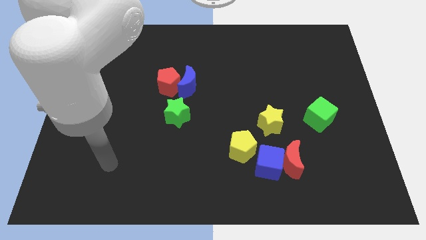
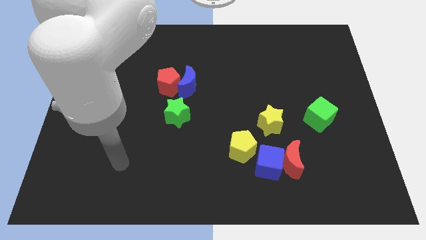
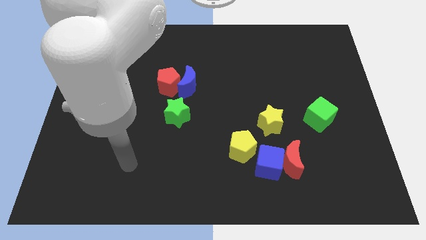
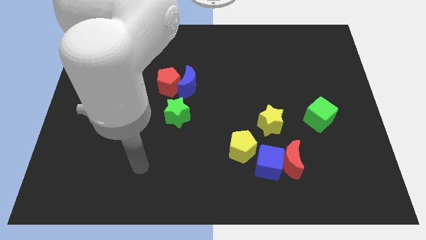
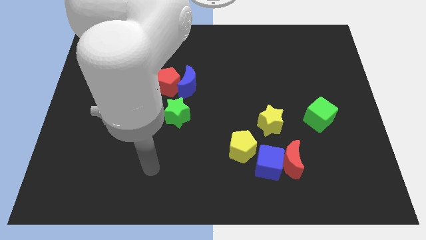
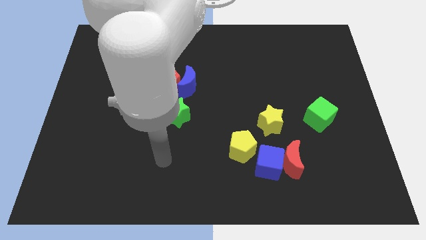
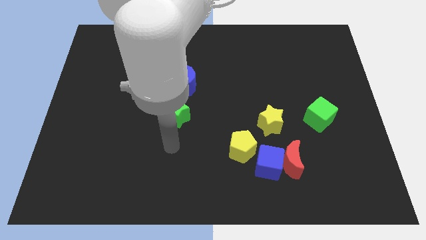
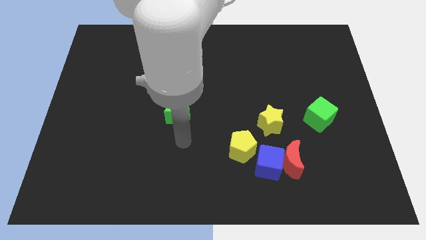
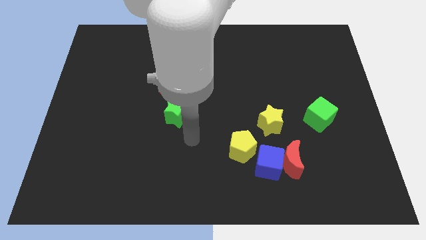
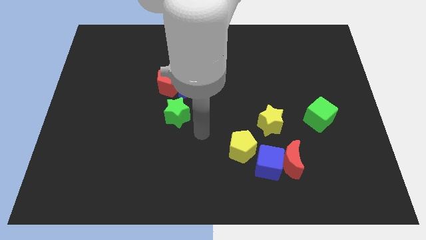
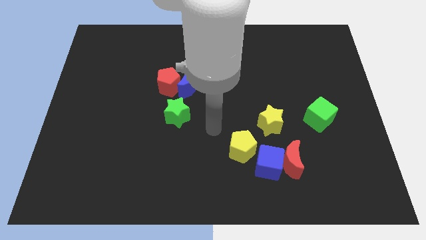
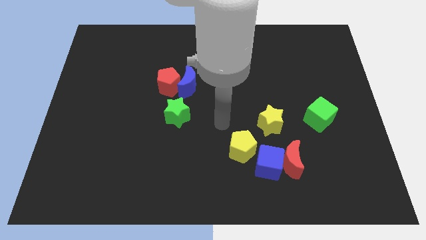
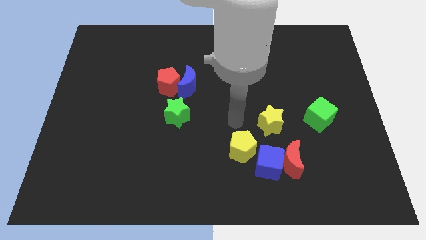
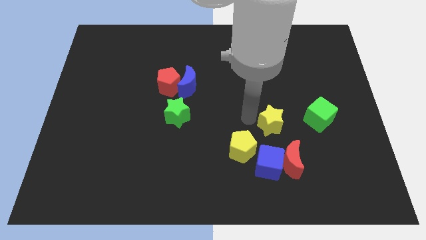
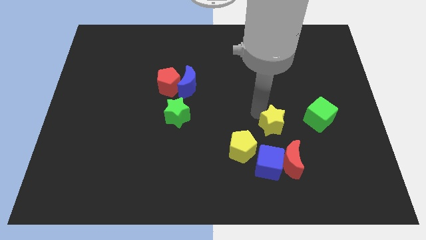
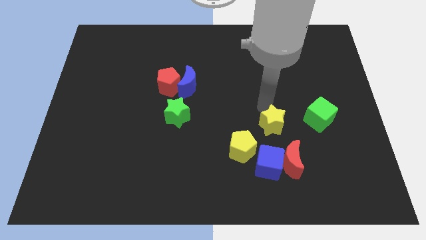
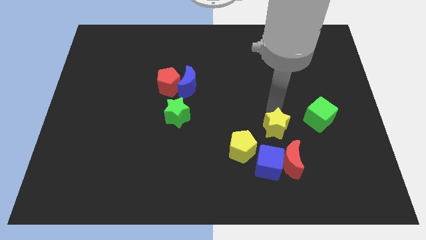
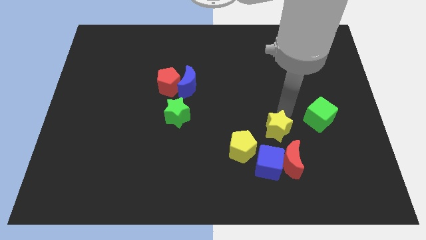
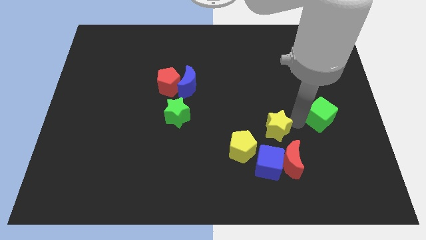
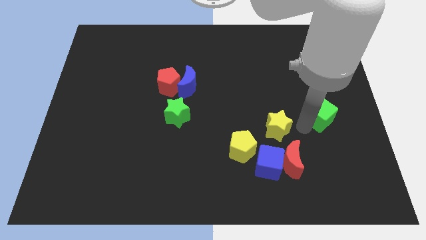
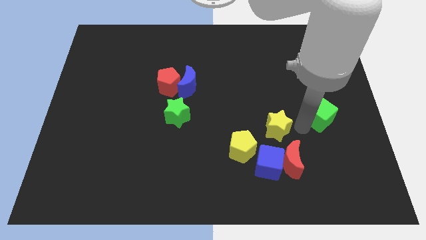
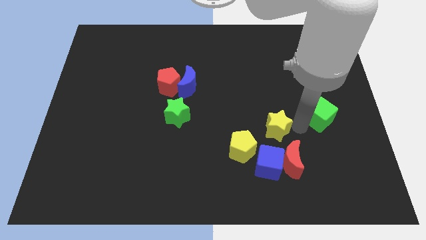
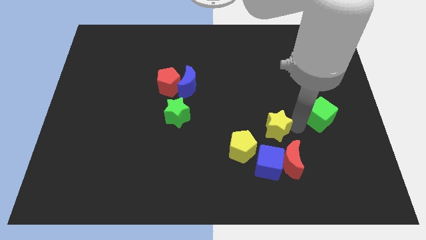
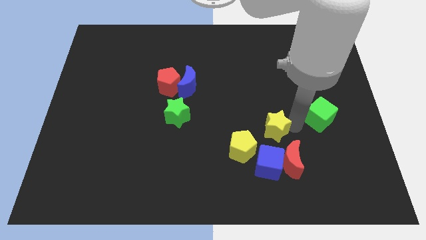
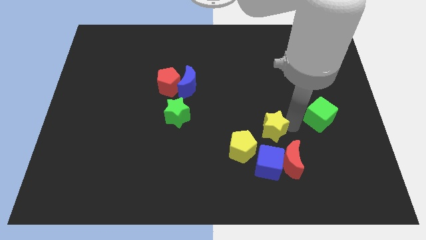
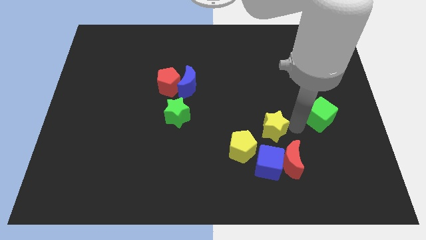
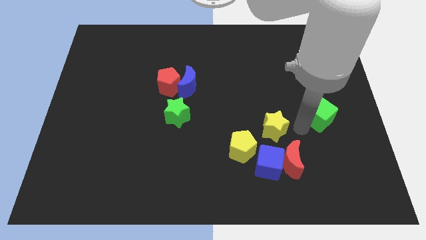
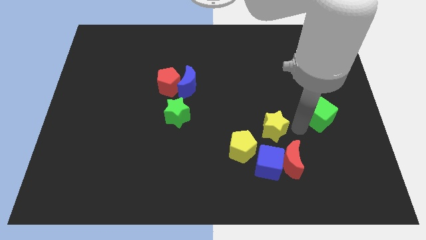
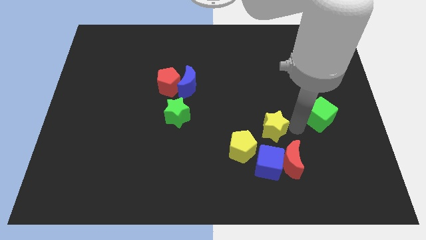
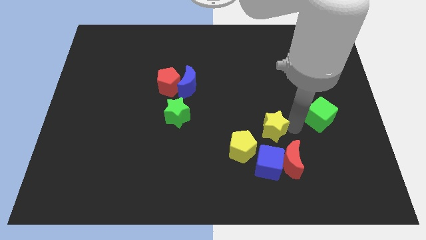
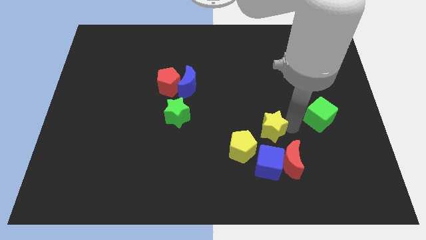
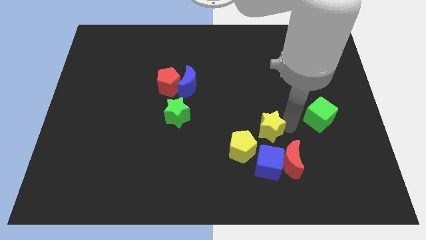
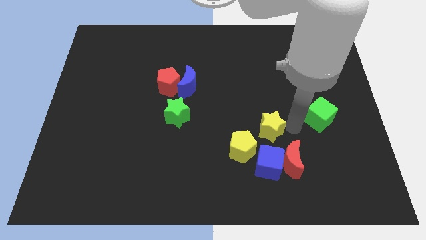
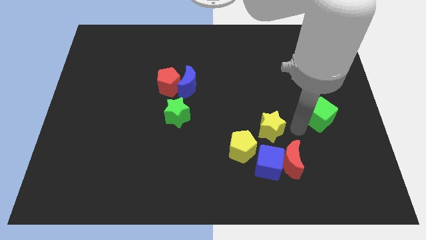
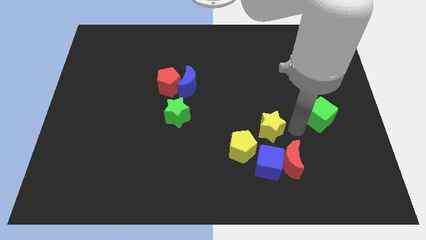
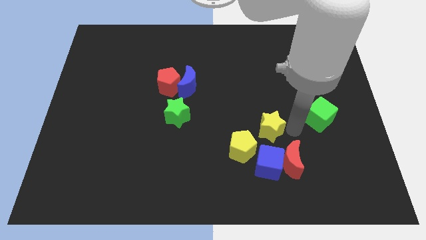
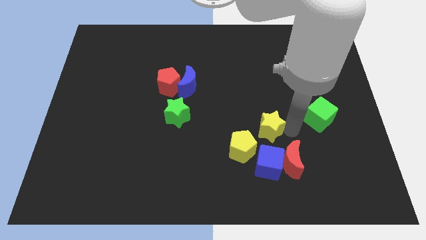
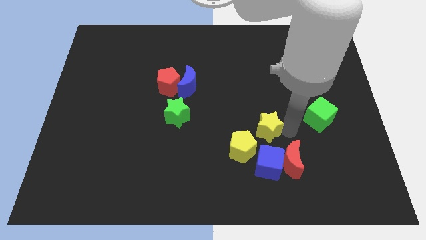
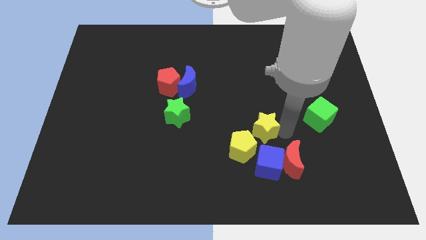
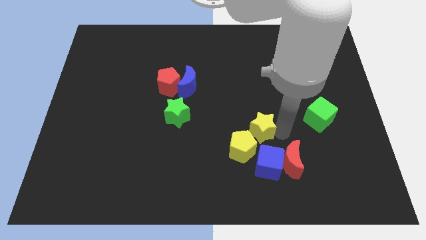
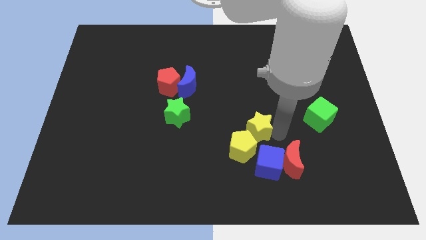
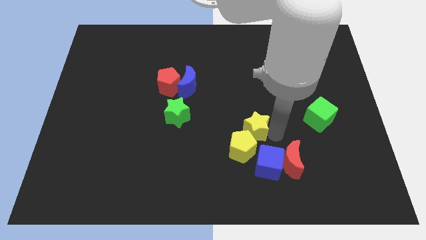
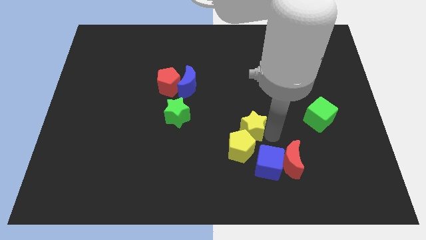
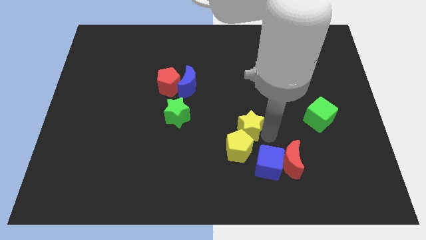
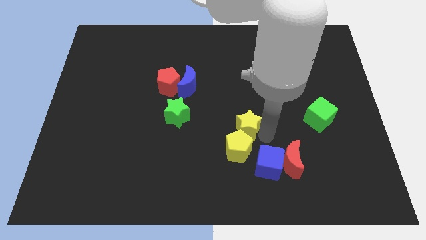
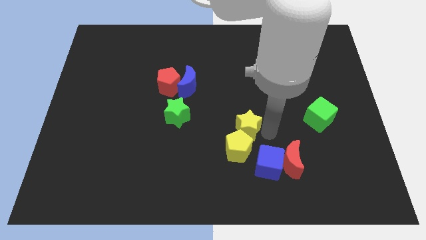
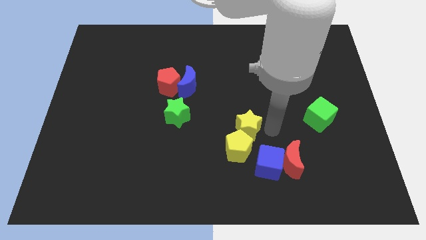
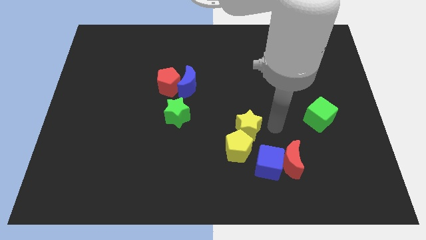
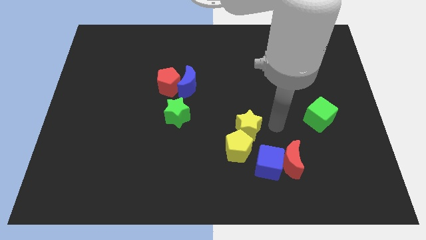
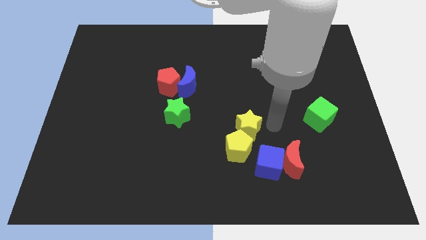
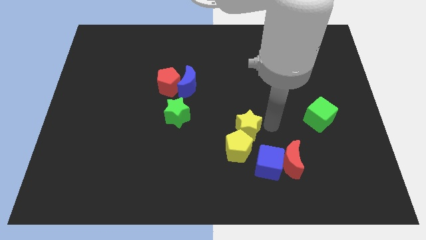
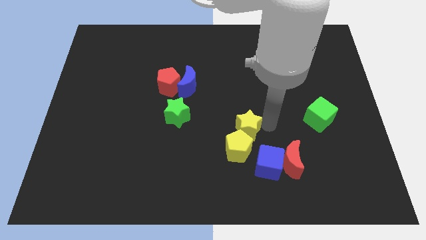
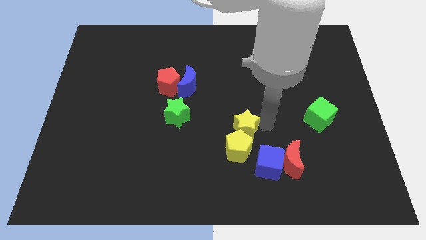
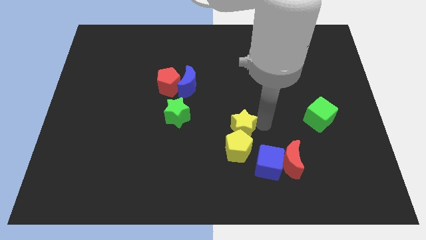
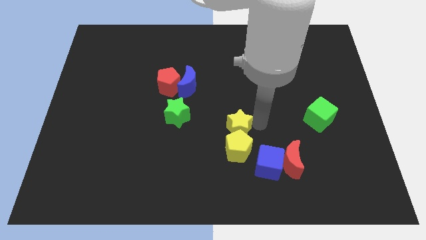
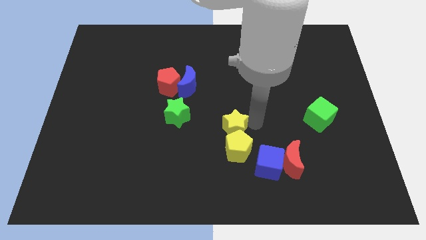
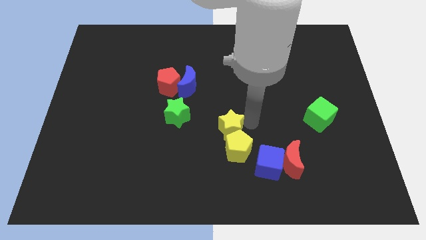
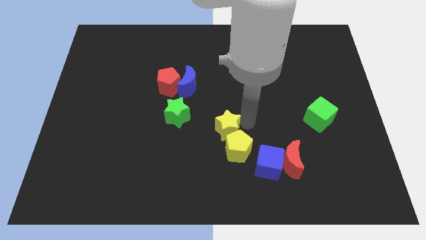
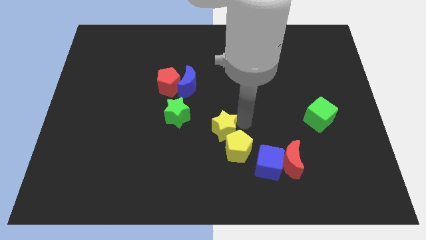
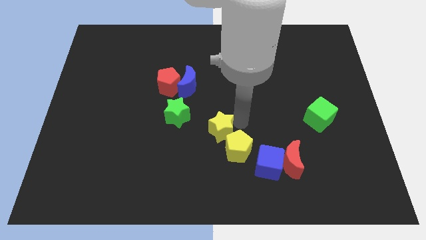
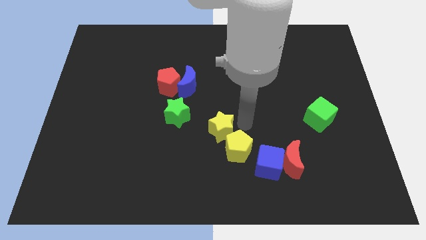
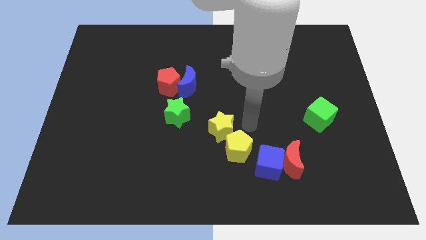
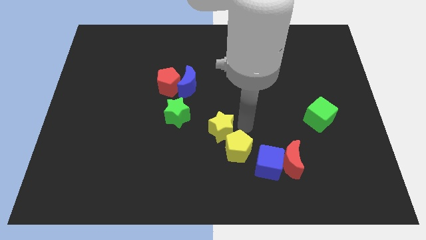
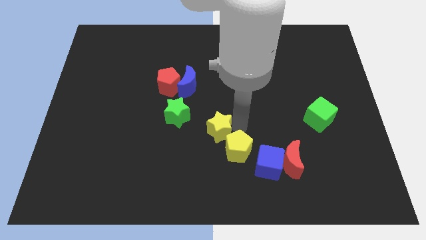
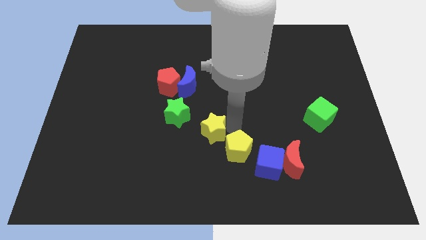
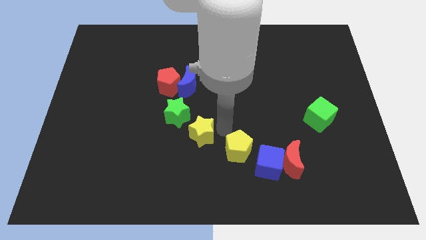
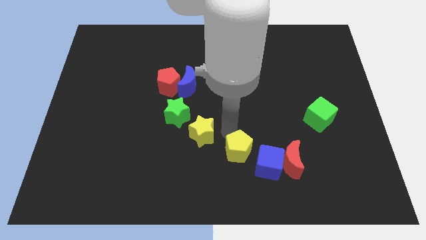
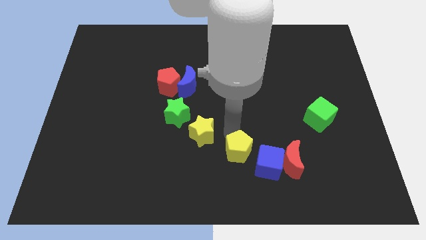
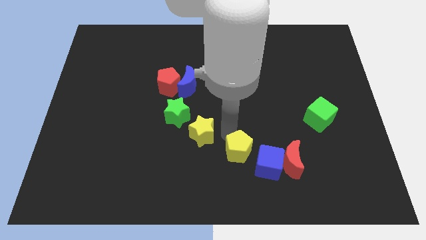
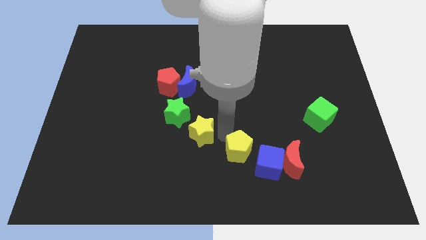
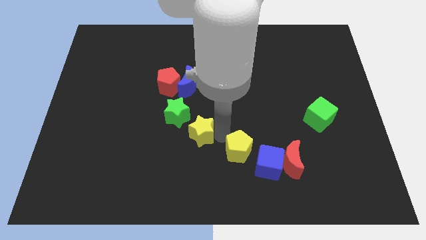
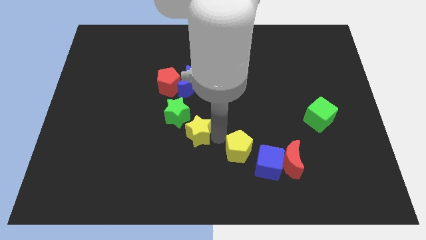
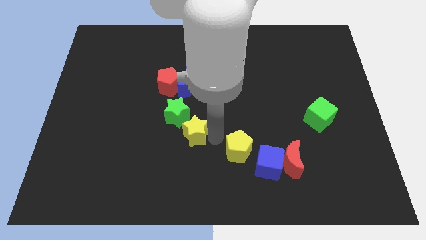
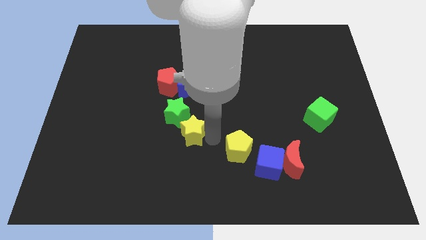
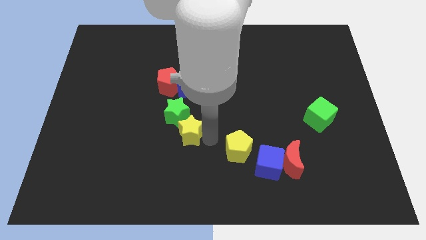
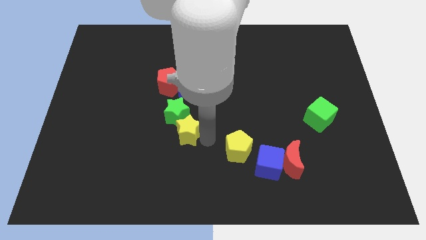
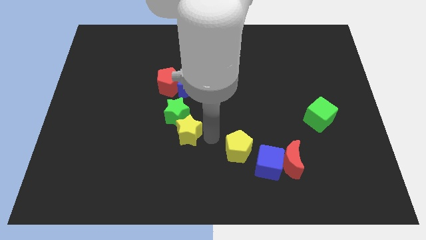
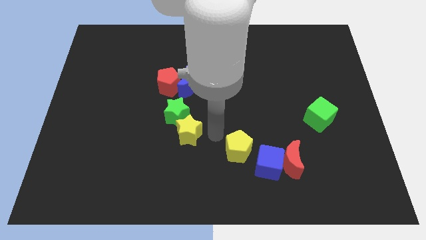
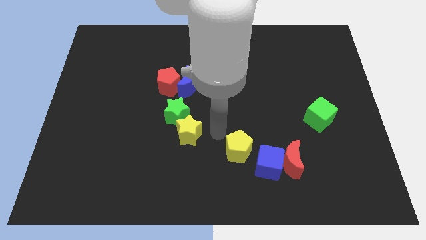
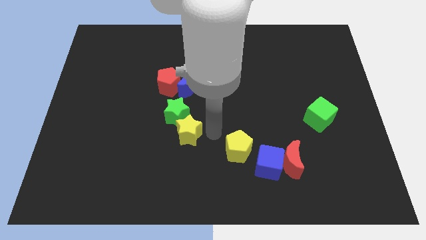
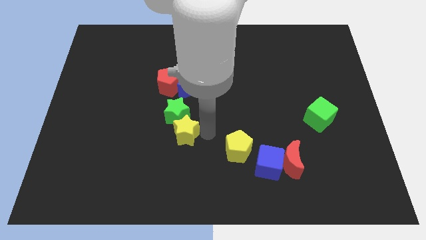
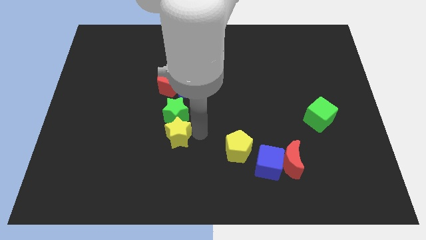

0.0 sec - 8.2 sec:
put the yellow star to the bottom left side of the green star
